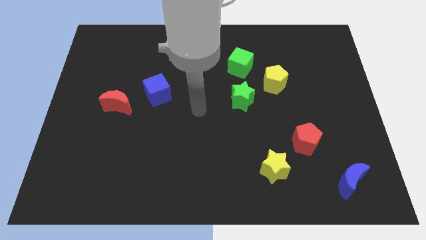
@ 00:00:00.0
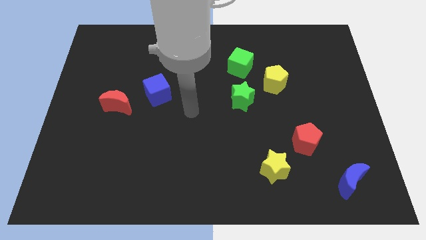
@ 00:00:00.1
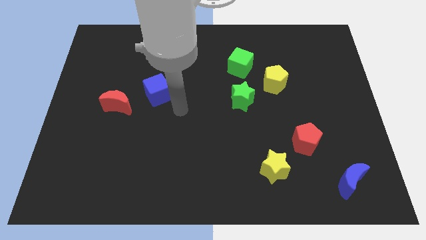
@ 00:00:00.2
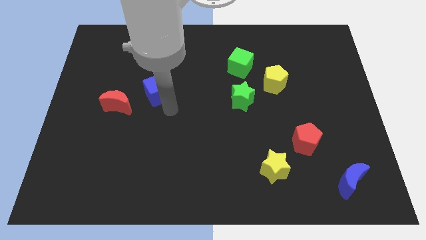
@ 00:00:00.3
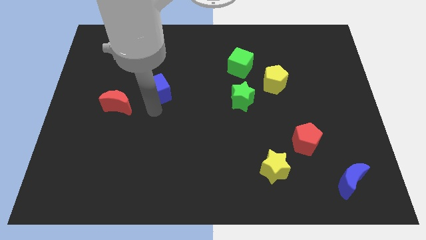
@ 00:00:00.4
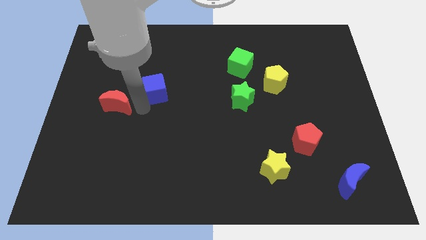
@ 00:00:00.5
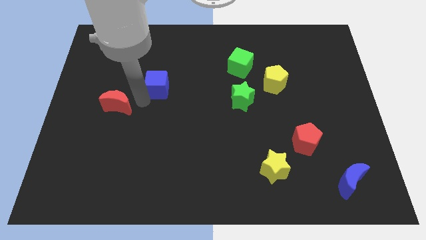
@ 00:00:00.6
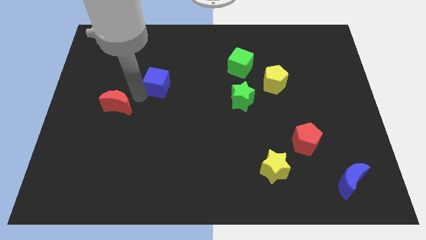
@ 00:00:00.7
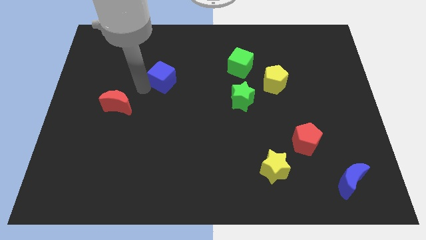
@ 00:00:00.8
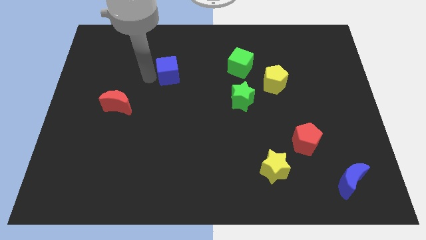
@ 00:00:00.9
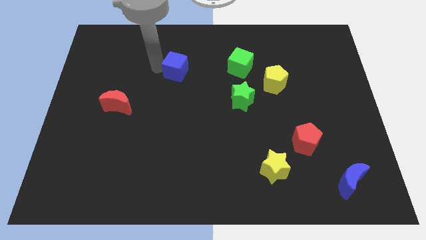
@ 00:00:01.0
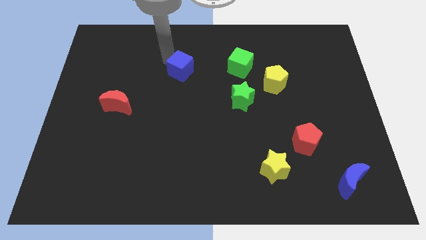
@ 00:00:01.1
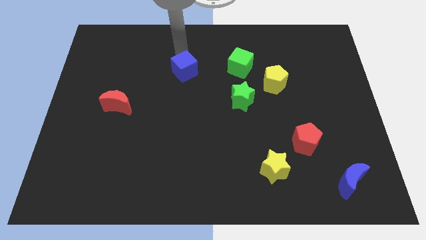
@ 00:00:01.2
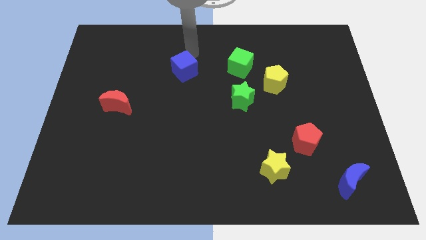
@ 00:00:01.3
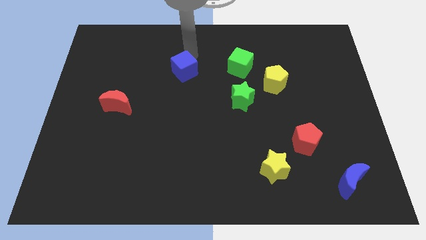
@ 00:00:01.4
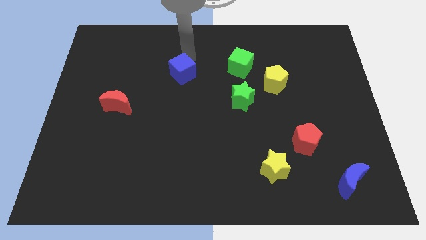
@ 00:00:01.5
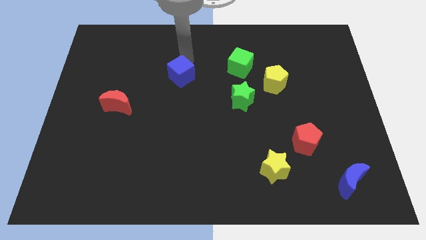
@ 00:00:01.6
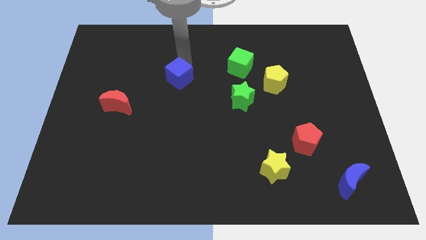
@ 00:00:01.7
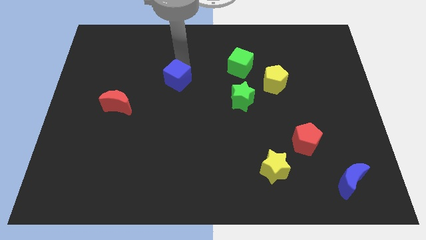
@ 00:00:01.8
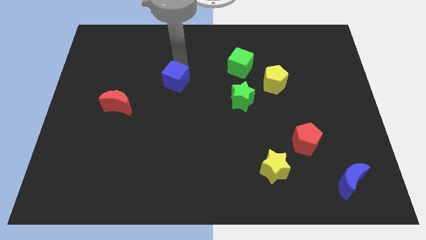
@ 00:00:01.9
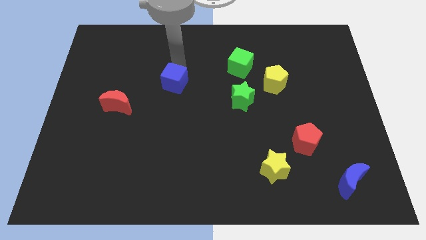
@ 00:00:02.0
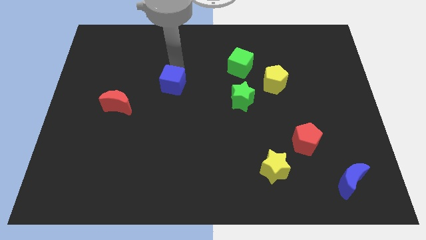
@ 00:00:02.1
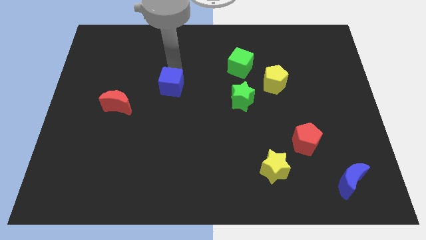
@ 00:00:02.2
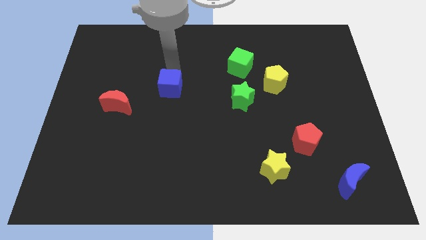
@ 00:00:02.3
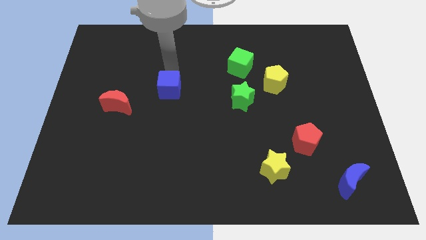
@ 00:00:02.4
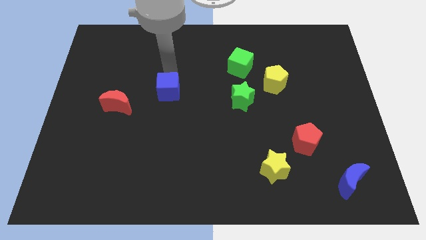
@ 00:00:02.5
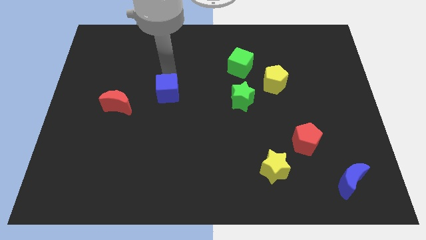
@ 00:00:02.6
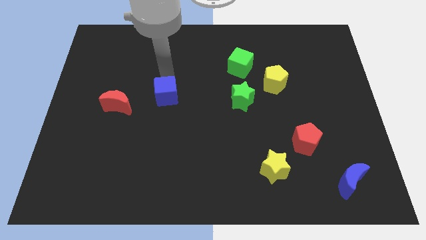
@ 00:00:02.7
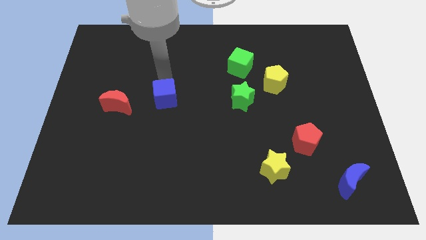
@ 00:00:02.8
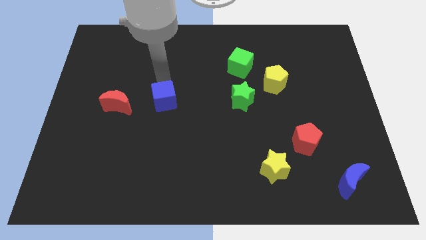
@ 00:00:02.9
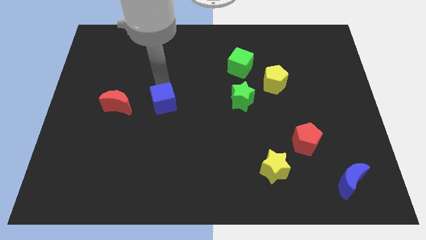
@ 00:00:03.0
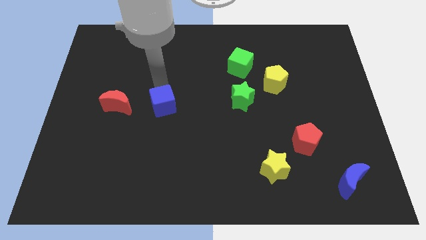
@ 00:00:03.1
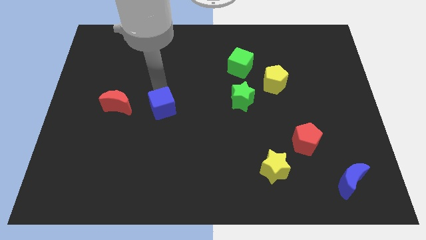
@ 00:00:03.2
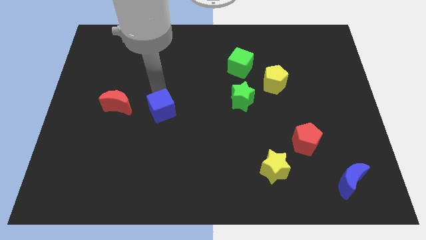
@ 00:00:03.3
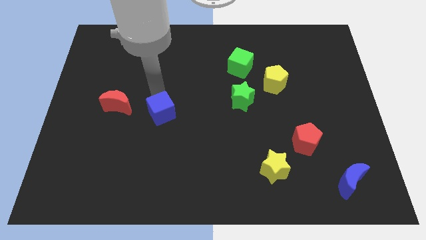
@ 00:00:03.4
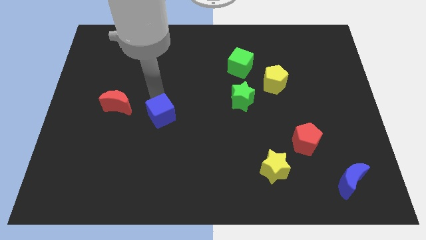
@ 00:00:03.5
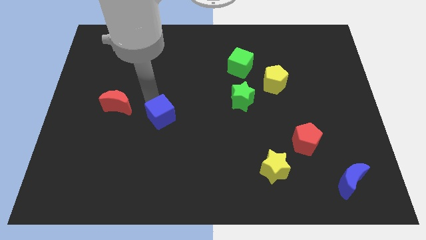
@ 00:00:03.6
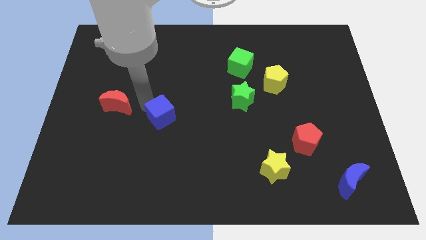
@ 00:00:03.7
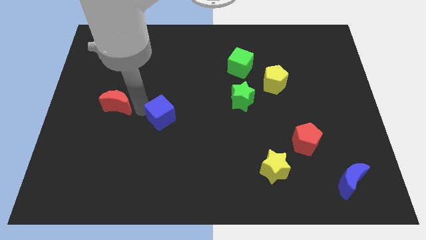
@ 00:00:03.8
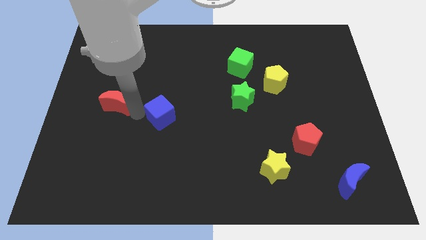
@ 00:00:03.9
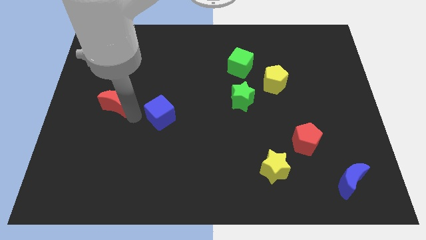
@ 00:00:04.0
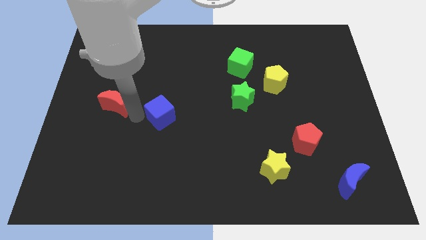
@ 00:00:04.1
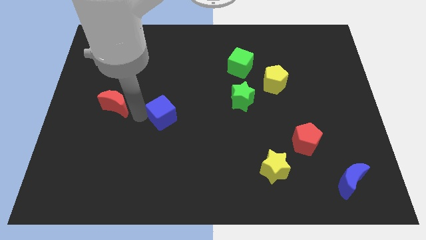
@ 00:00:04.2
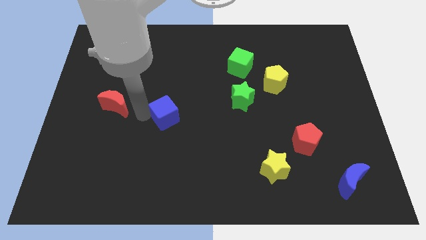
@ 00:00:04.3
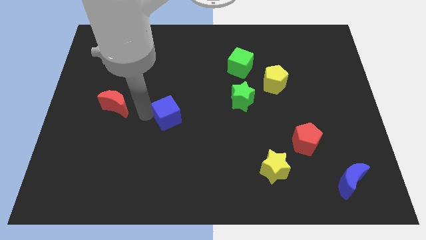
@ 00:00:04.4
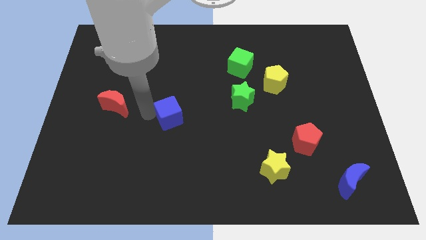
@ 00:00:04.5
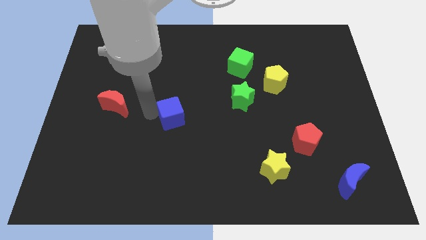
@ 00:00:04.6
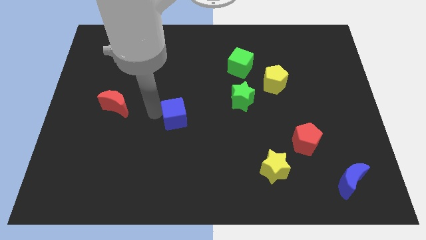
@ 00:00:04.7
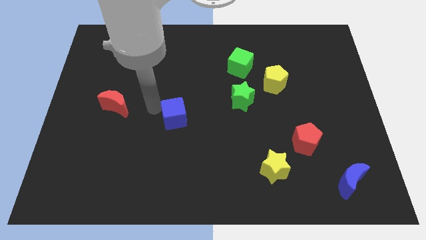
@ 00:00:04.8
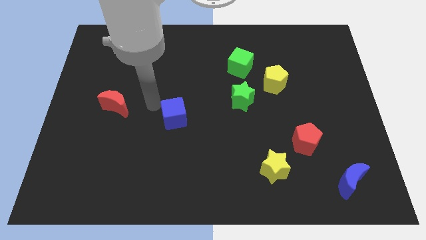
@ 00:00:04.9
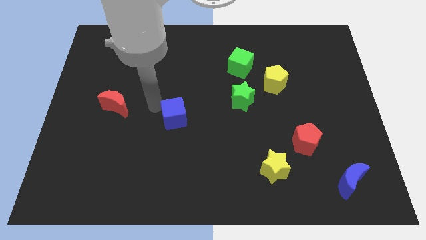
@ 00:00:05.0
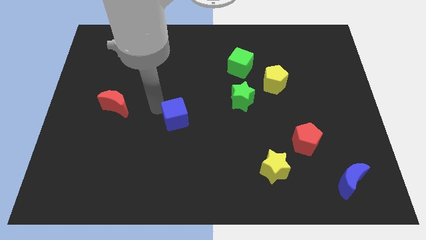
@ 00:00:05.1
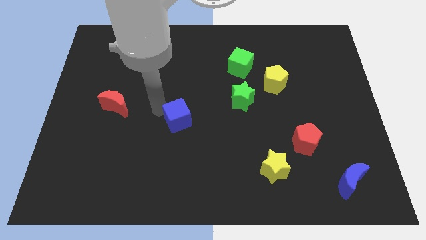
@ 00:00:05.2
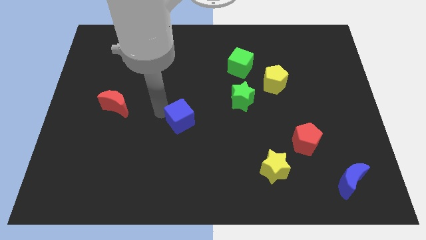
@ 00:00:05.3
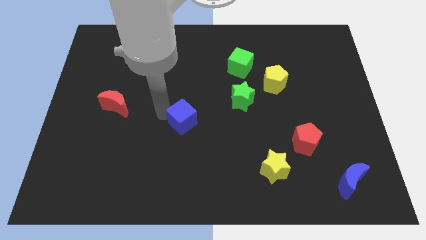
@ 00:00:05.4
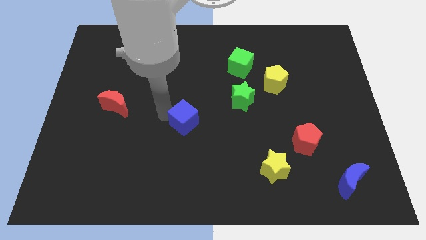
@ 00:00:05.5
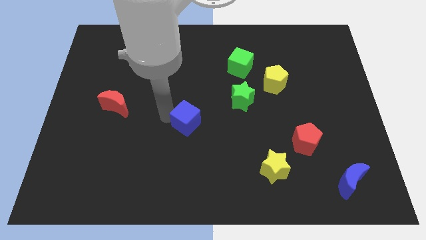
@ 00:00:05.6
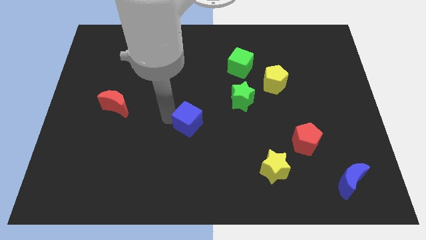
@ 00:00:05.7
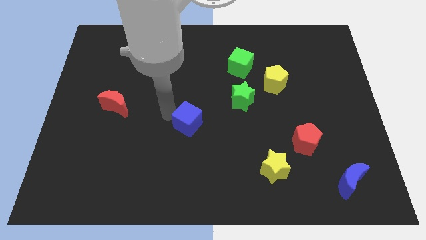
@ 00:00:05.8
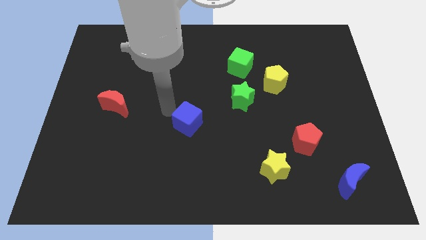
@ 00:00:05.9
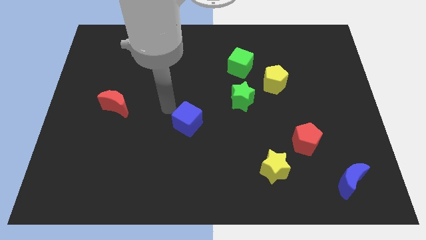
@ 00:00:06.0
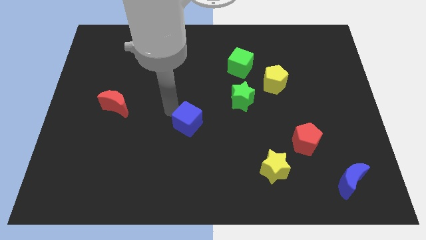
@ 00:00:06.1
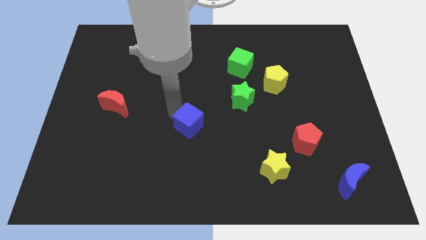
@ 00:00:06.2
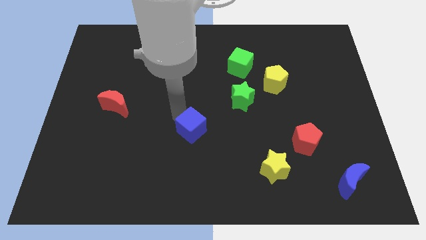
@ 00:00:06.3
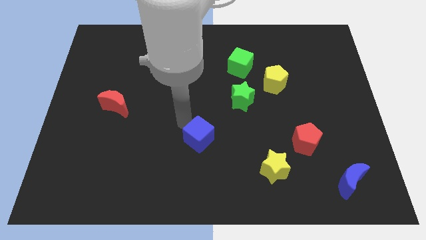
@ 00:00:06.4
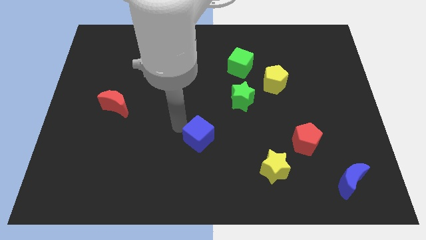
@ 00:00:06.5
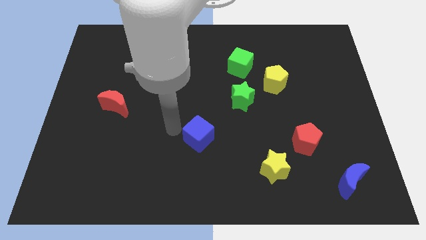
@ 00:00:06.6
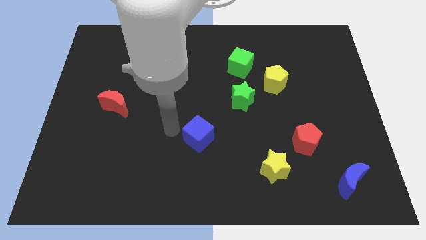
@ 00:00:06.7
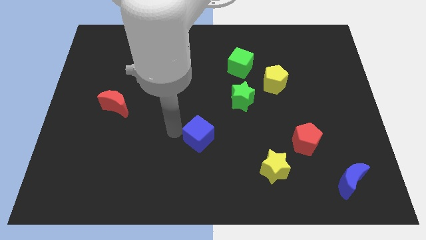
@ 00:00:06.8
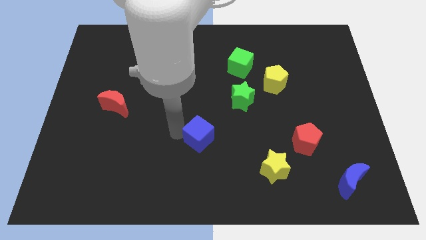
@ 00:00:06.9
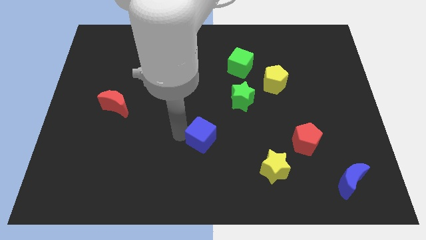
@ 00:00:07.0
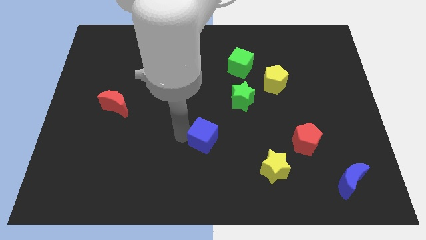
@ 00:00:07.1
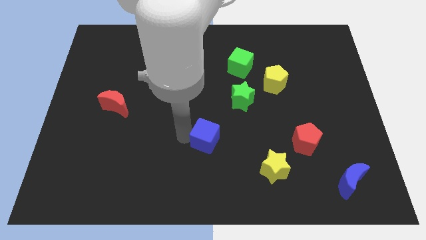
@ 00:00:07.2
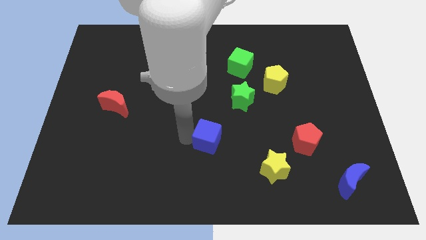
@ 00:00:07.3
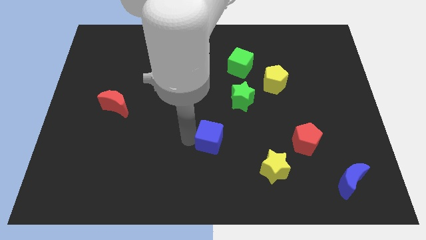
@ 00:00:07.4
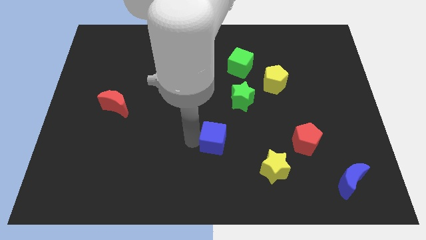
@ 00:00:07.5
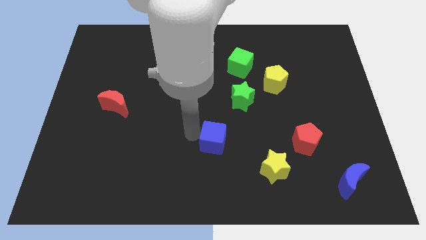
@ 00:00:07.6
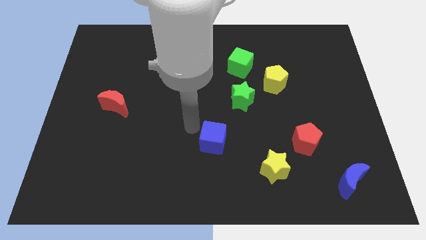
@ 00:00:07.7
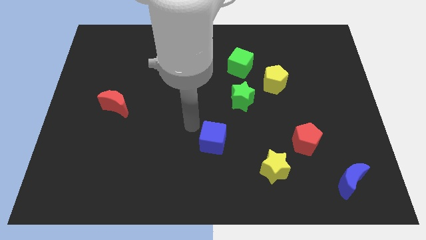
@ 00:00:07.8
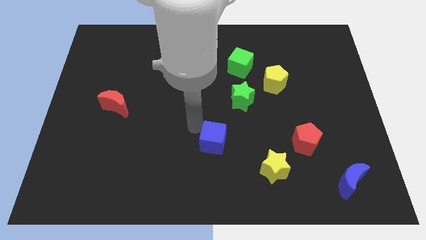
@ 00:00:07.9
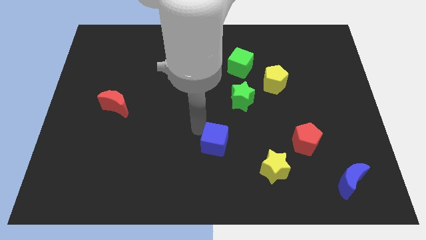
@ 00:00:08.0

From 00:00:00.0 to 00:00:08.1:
push the blue cube downwards and to the right diagonally
